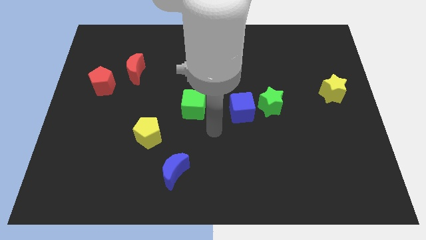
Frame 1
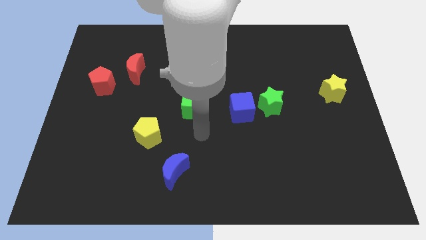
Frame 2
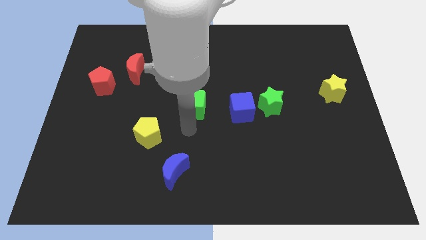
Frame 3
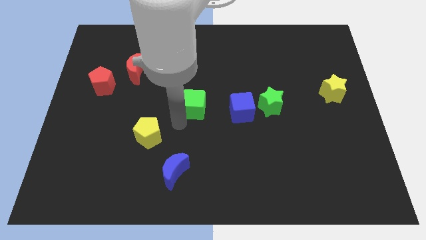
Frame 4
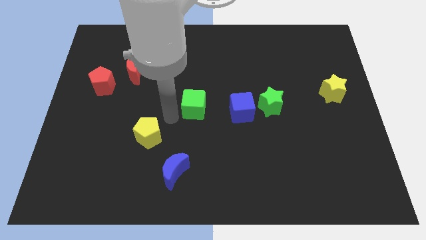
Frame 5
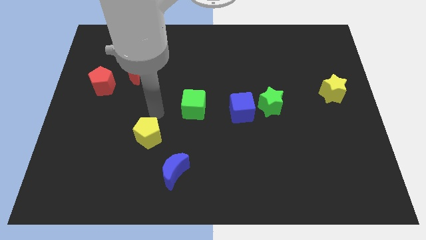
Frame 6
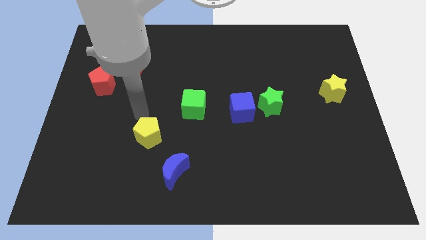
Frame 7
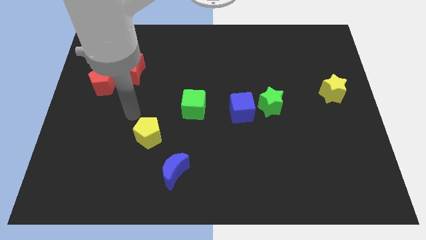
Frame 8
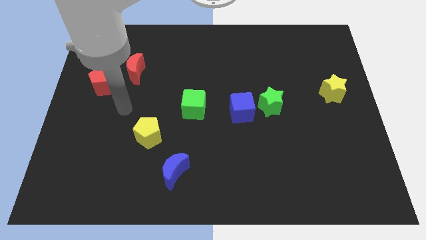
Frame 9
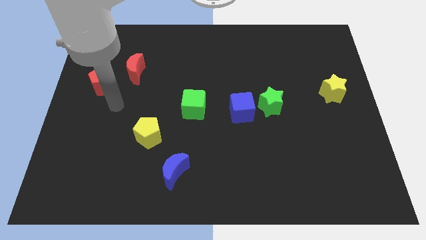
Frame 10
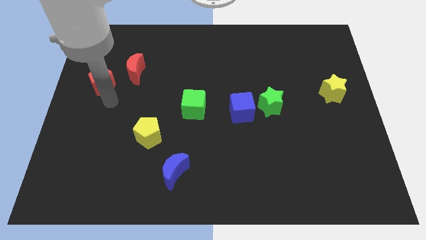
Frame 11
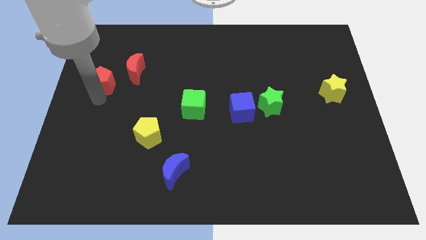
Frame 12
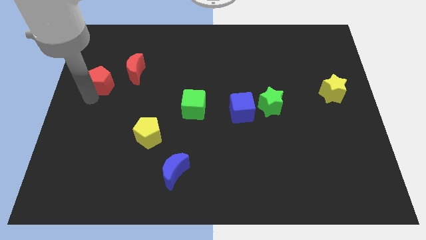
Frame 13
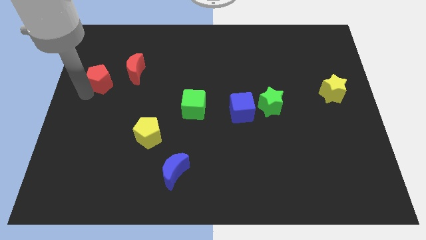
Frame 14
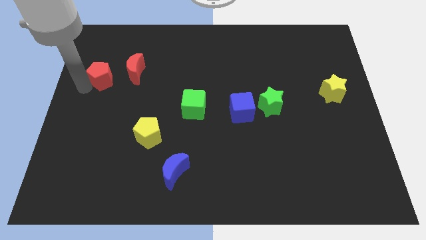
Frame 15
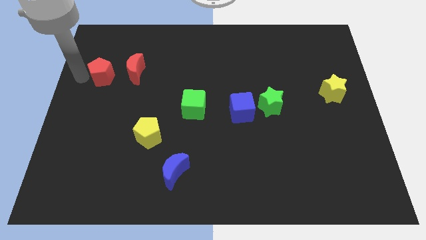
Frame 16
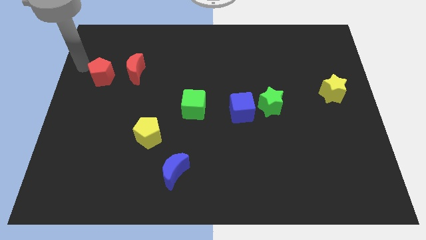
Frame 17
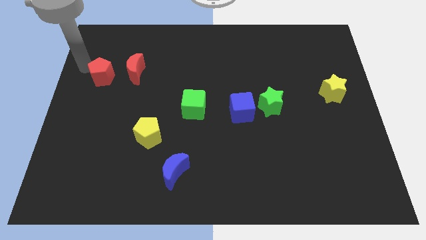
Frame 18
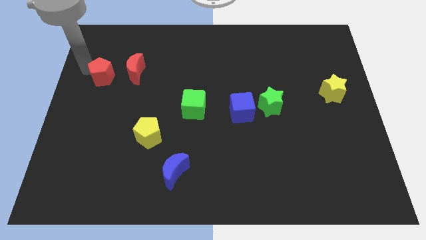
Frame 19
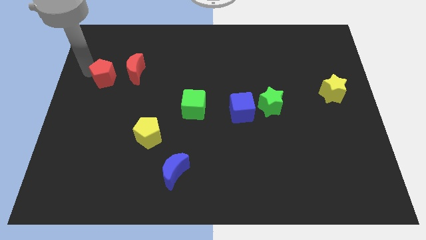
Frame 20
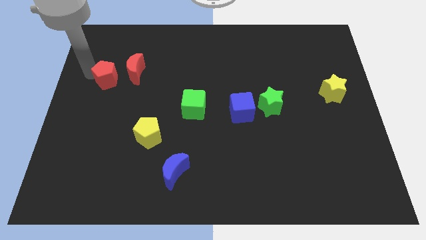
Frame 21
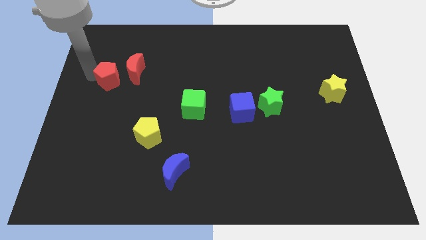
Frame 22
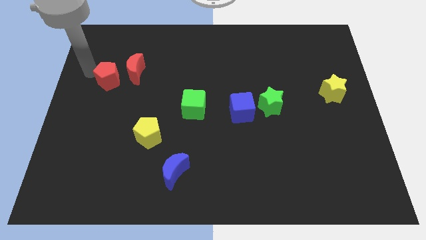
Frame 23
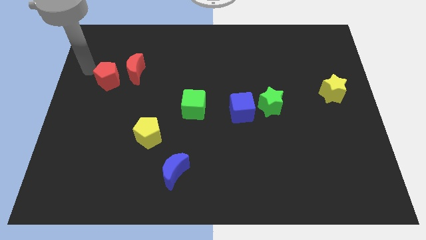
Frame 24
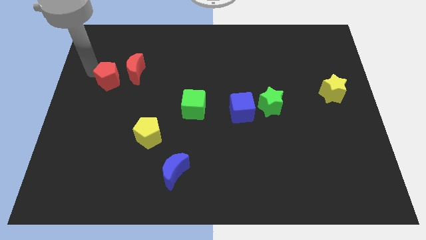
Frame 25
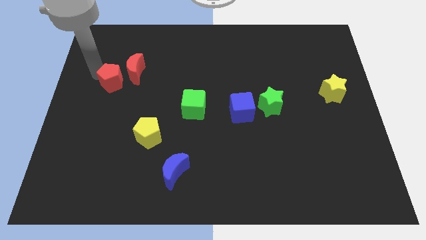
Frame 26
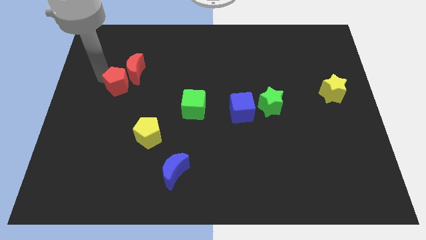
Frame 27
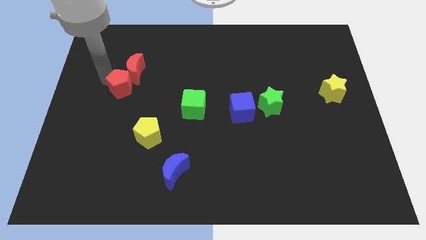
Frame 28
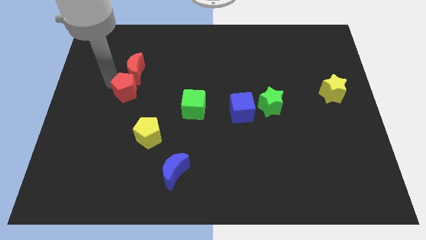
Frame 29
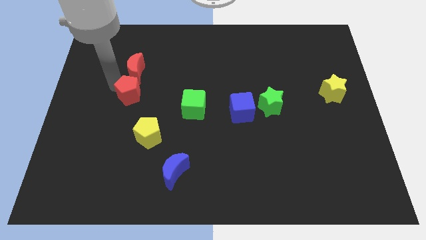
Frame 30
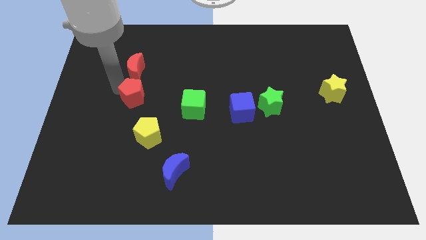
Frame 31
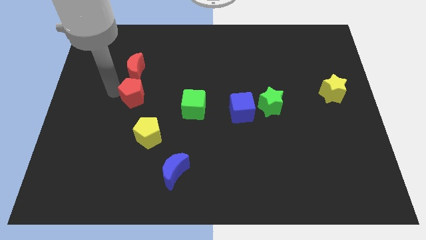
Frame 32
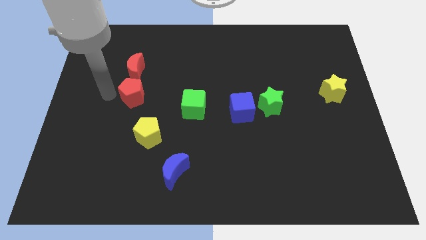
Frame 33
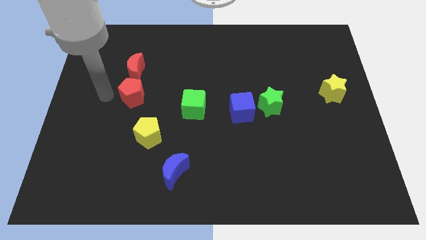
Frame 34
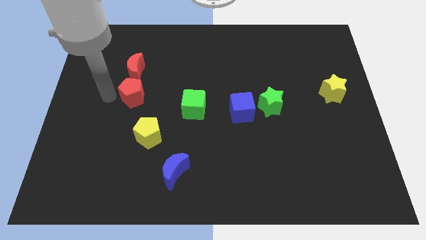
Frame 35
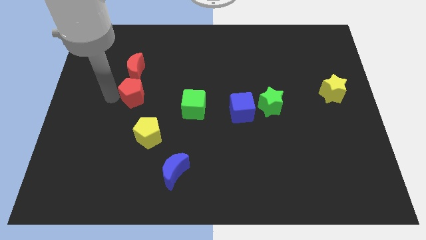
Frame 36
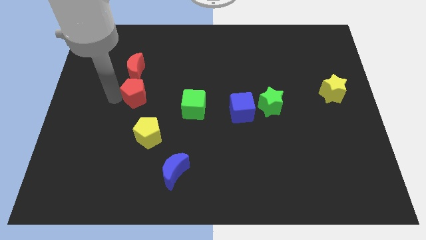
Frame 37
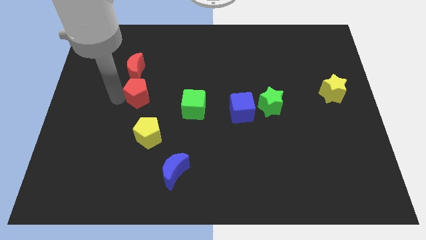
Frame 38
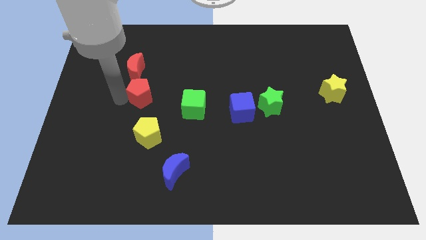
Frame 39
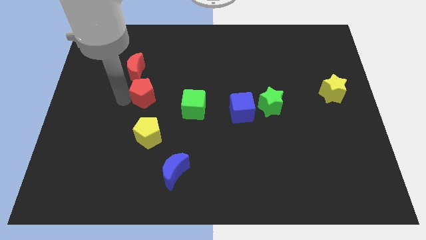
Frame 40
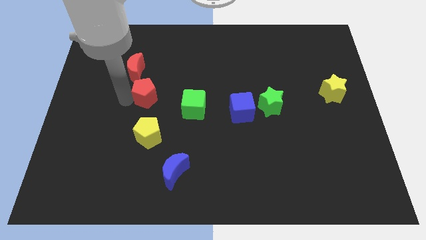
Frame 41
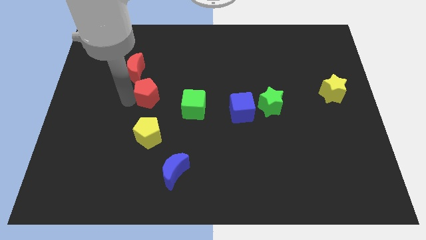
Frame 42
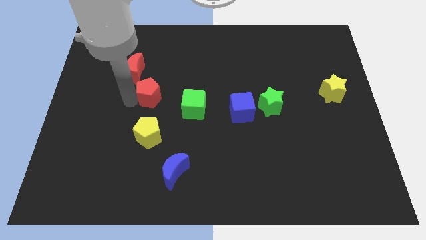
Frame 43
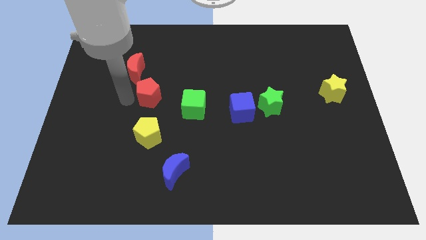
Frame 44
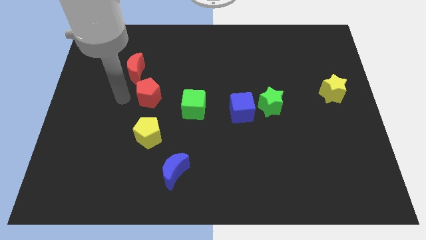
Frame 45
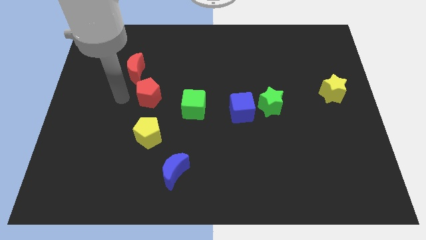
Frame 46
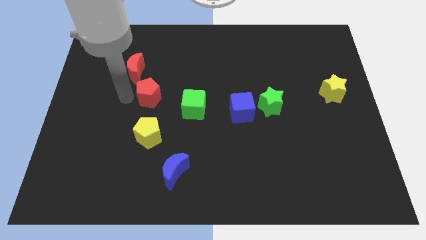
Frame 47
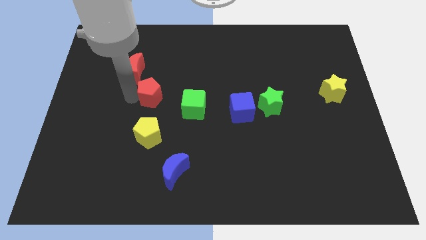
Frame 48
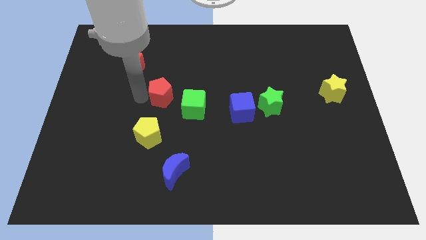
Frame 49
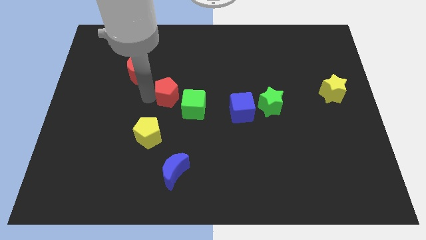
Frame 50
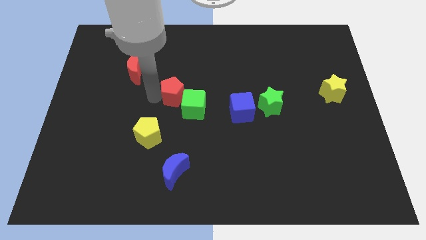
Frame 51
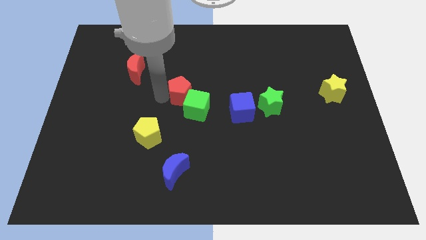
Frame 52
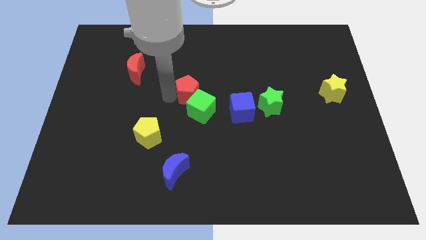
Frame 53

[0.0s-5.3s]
move the red pentagon right

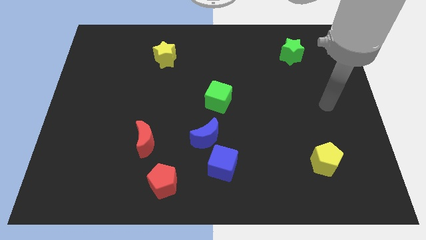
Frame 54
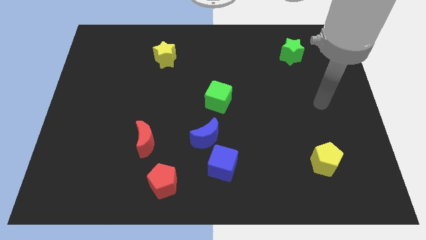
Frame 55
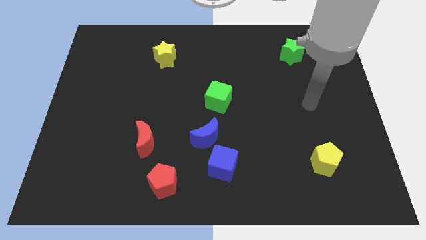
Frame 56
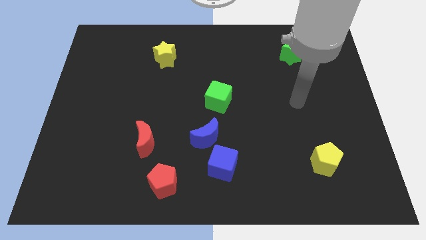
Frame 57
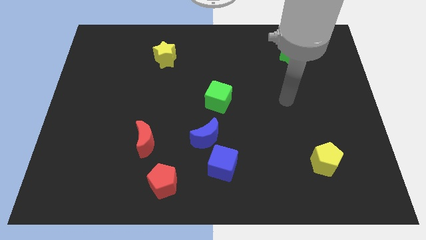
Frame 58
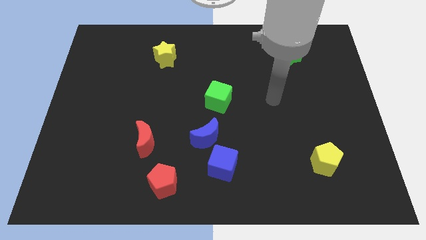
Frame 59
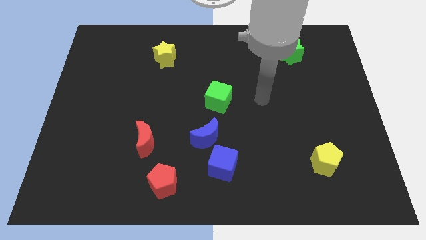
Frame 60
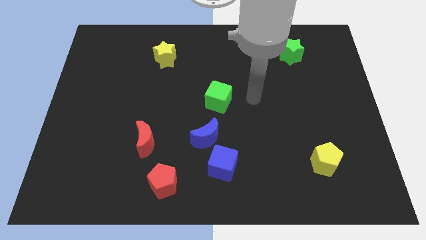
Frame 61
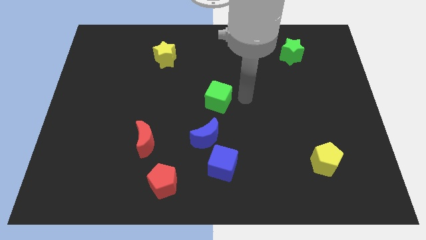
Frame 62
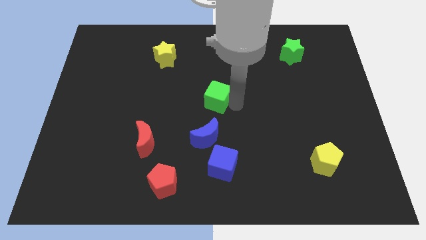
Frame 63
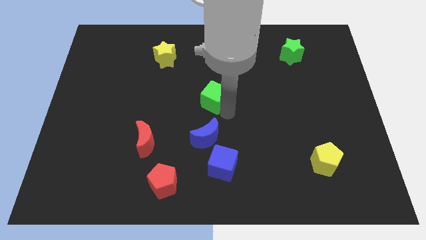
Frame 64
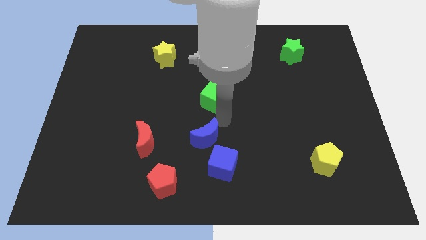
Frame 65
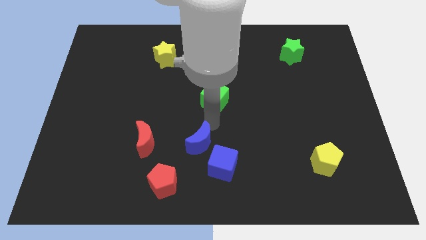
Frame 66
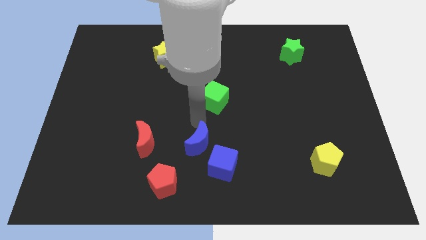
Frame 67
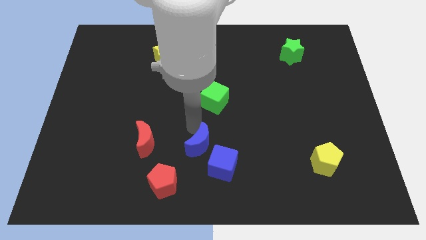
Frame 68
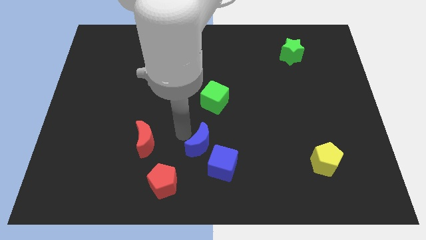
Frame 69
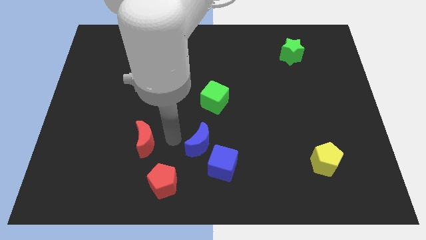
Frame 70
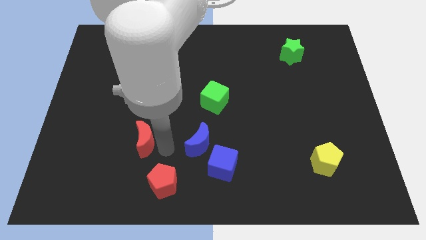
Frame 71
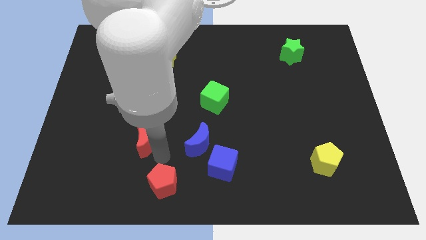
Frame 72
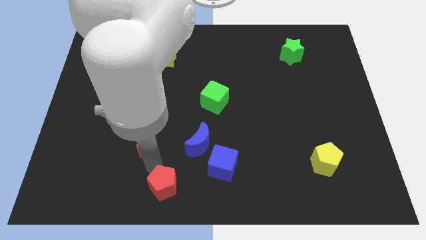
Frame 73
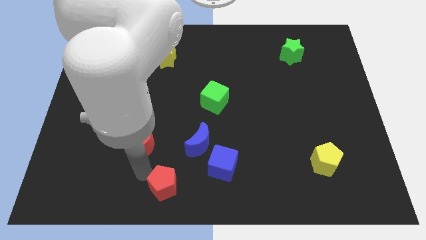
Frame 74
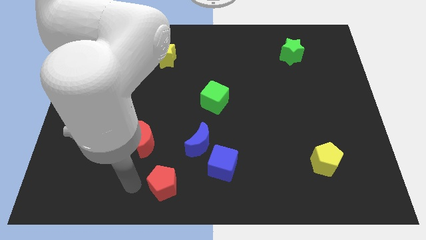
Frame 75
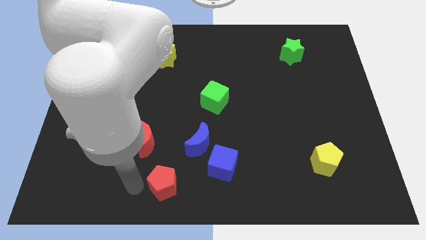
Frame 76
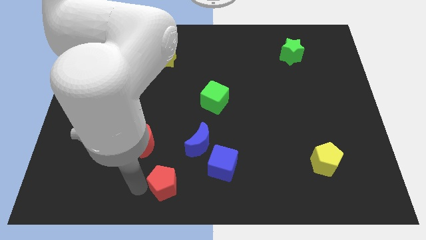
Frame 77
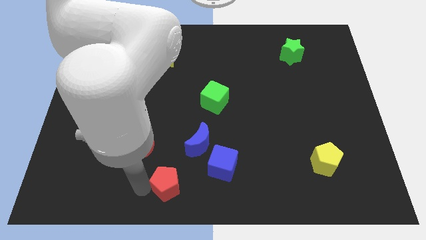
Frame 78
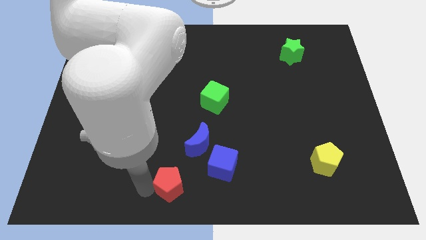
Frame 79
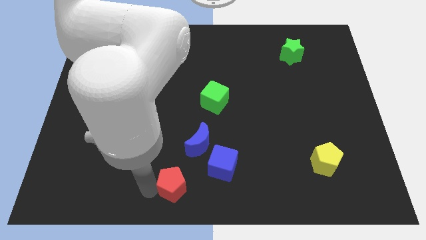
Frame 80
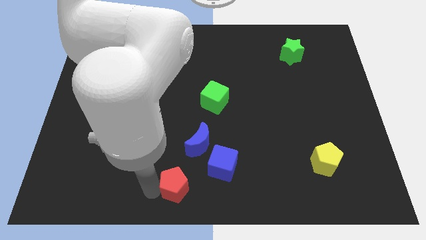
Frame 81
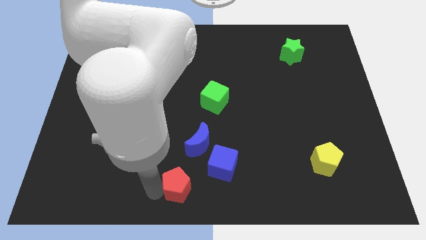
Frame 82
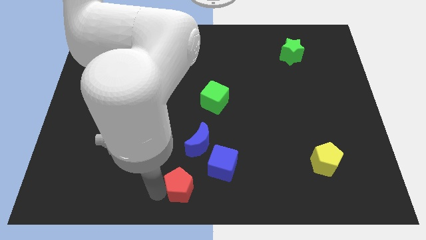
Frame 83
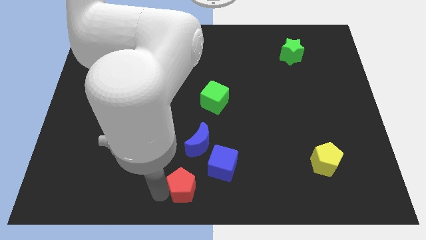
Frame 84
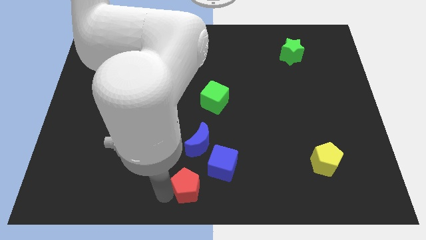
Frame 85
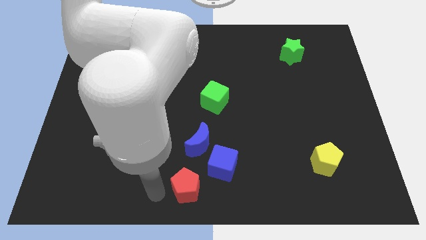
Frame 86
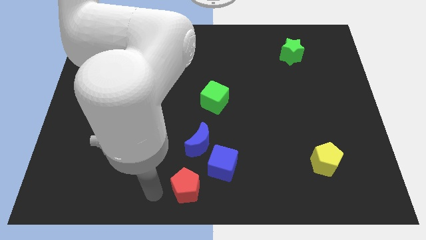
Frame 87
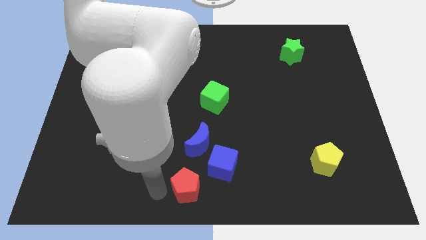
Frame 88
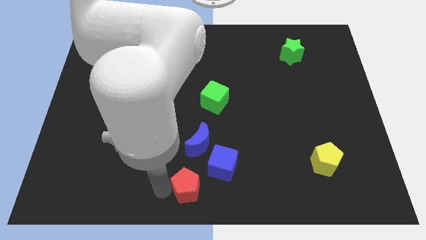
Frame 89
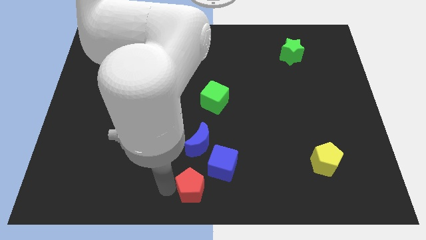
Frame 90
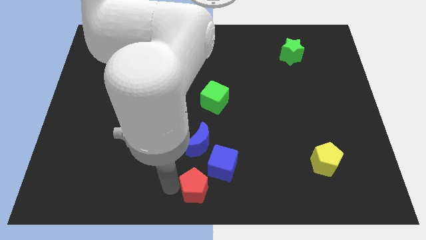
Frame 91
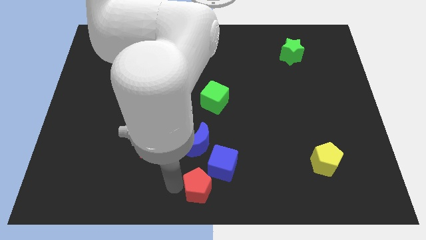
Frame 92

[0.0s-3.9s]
slightly slide the red pentagon to the right
